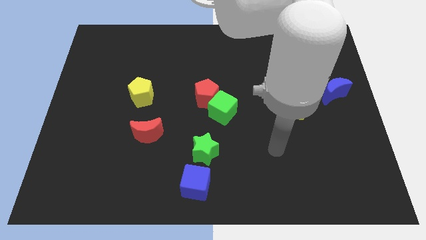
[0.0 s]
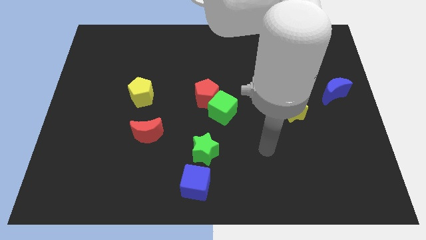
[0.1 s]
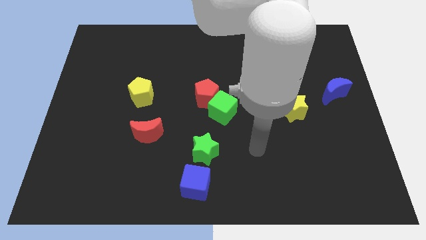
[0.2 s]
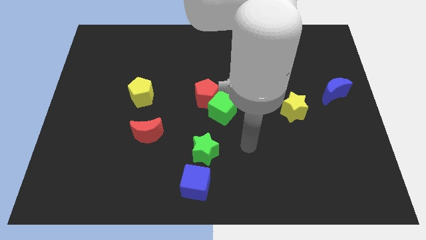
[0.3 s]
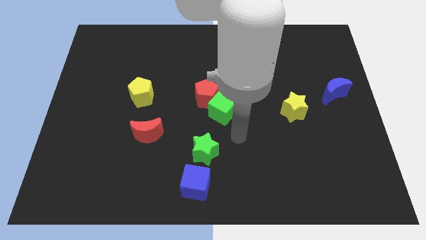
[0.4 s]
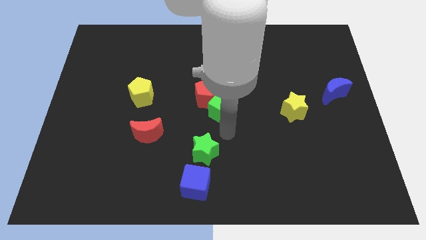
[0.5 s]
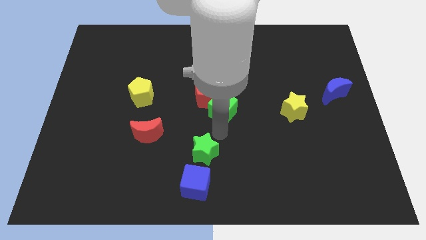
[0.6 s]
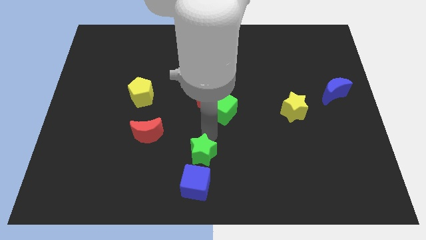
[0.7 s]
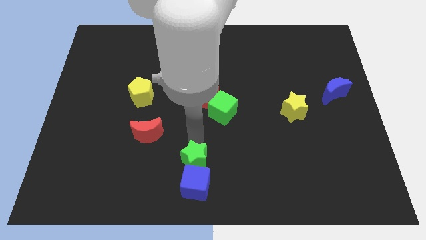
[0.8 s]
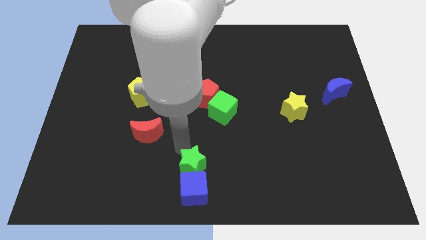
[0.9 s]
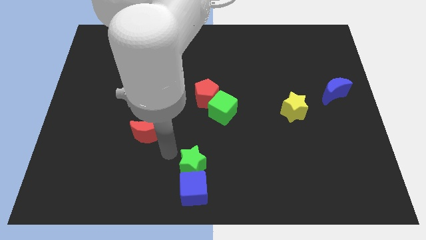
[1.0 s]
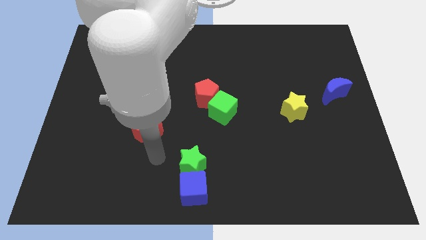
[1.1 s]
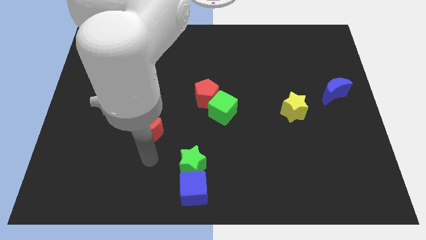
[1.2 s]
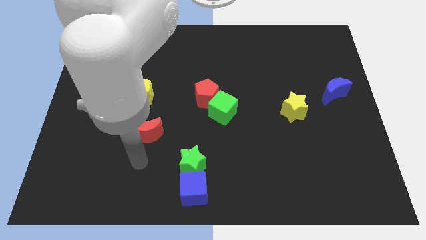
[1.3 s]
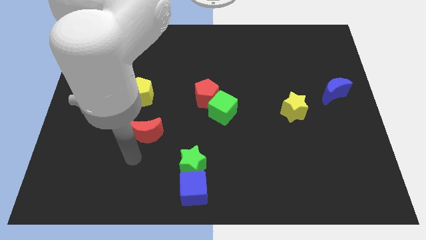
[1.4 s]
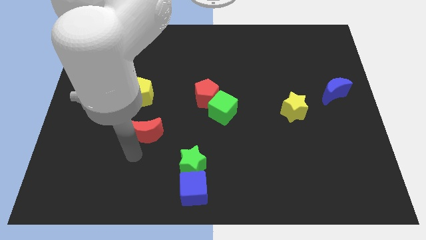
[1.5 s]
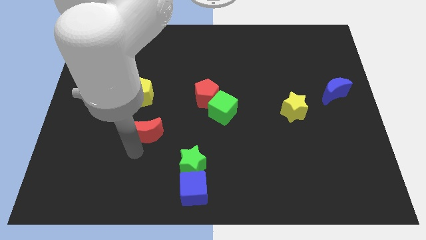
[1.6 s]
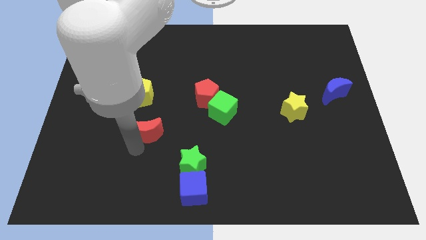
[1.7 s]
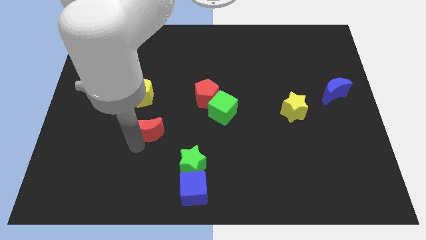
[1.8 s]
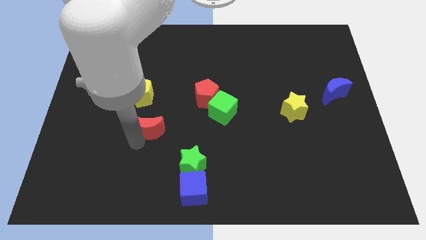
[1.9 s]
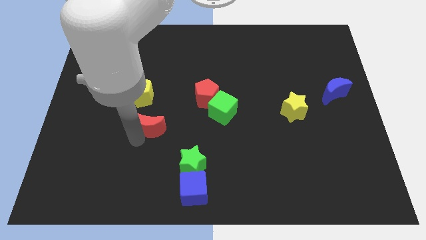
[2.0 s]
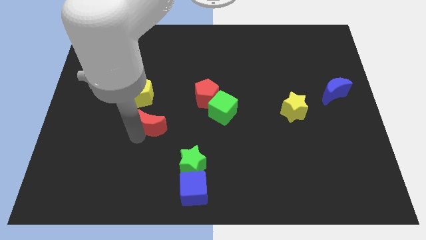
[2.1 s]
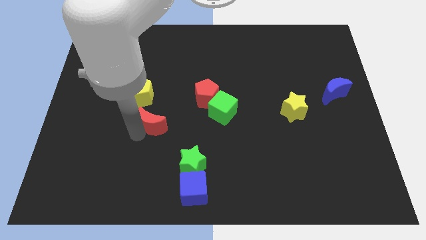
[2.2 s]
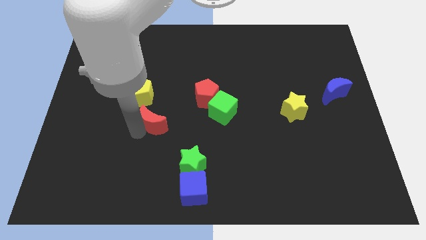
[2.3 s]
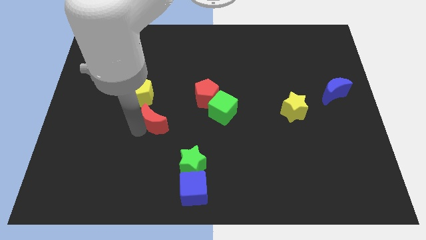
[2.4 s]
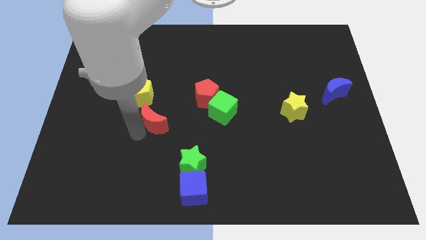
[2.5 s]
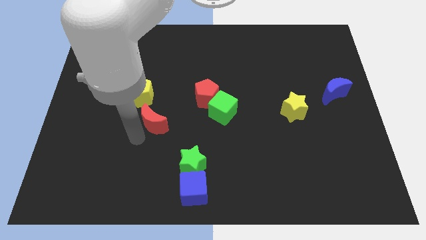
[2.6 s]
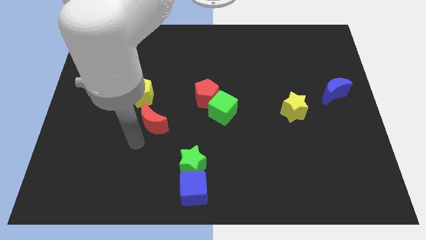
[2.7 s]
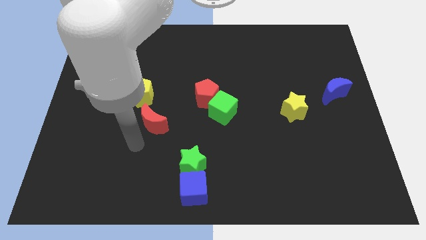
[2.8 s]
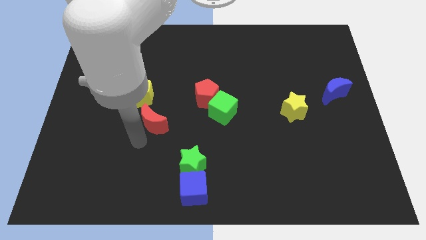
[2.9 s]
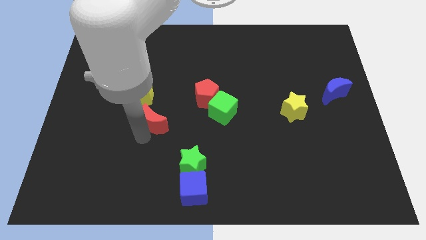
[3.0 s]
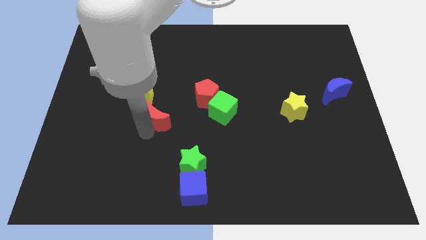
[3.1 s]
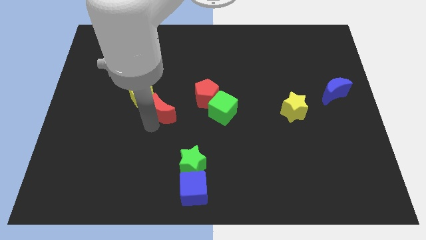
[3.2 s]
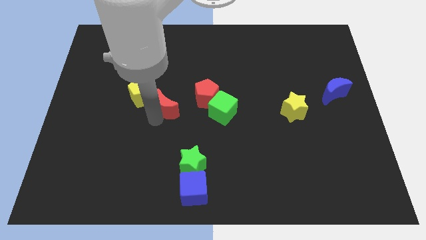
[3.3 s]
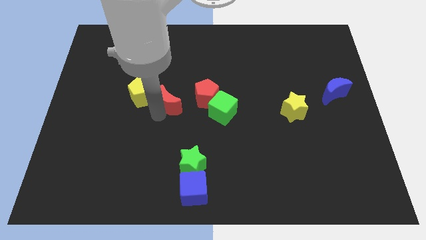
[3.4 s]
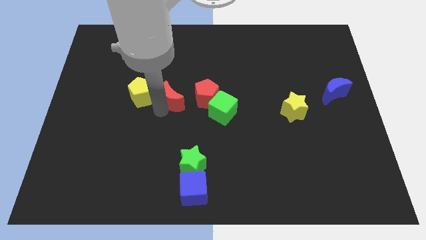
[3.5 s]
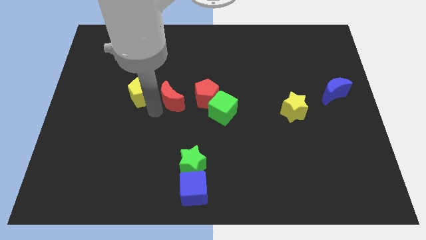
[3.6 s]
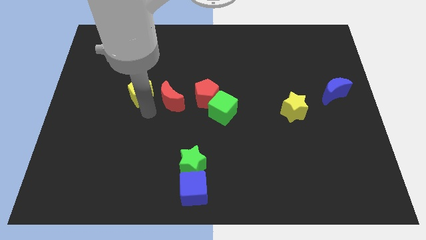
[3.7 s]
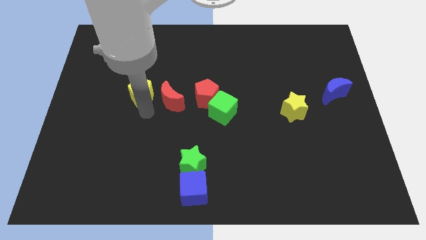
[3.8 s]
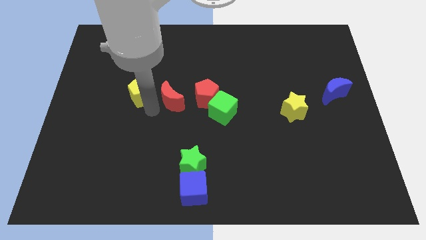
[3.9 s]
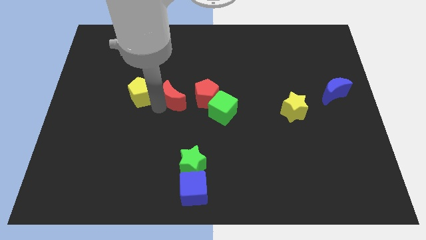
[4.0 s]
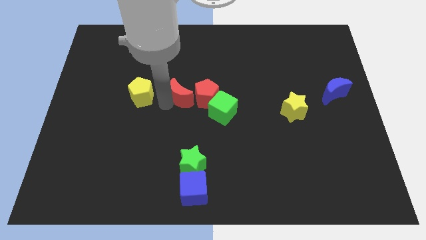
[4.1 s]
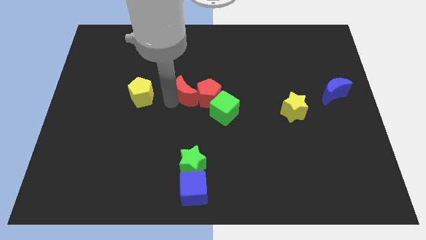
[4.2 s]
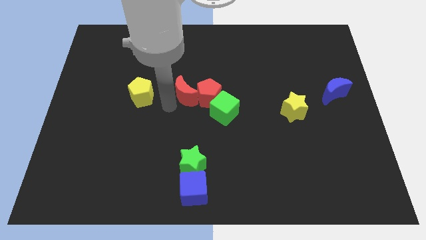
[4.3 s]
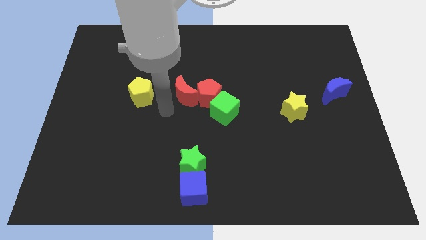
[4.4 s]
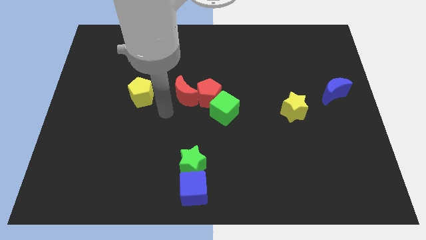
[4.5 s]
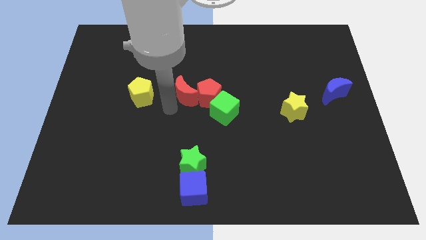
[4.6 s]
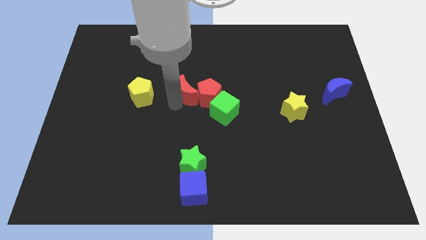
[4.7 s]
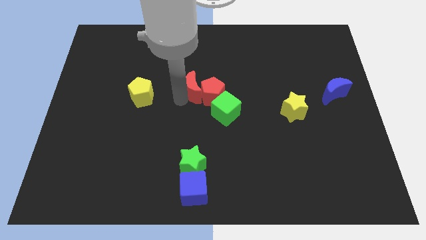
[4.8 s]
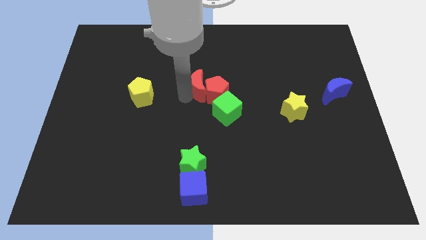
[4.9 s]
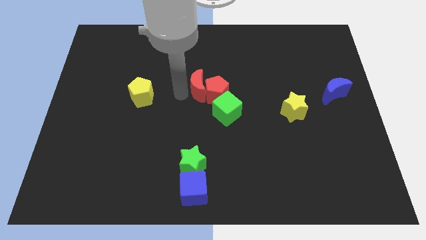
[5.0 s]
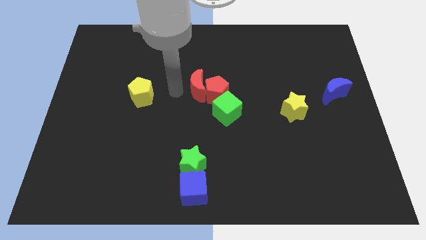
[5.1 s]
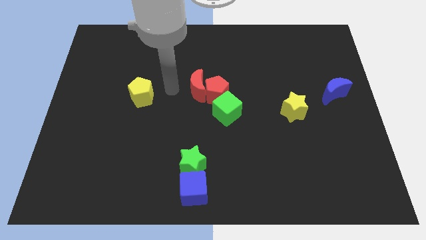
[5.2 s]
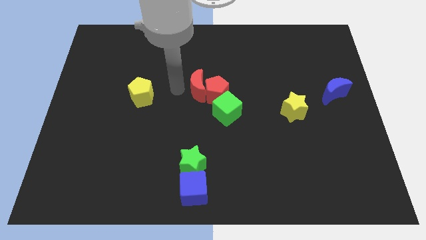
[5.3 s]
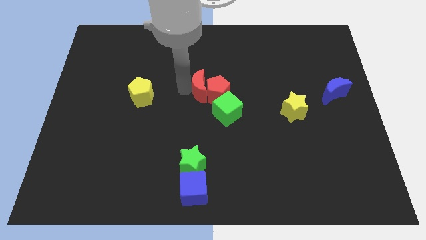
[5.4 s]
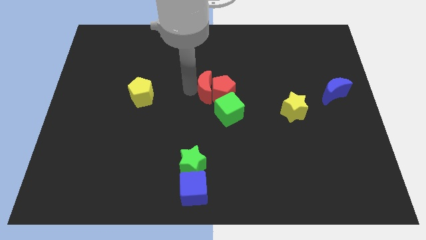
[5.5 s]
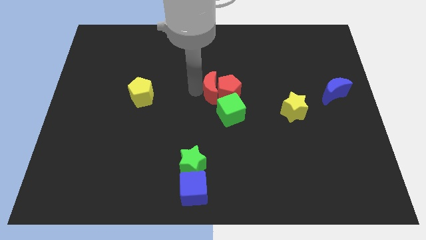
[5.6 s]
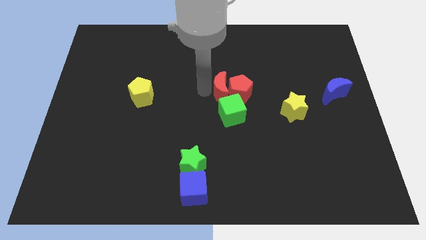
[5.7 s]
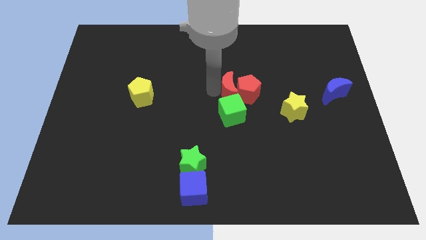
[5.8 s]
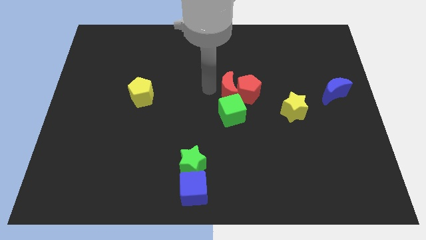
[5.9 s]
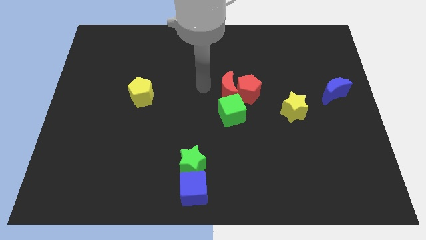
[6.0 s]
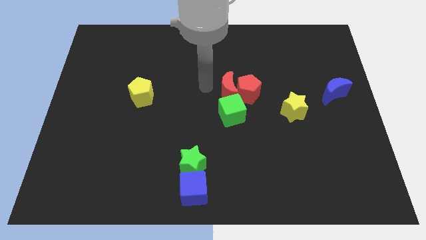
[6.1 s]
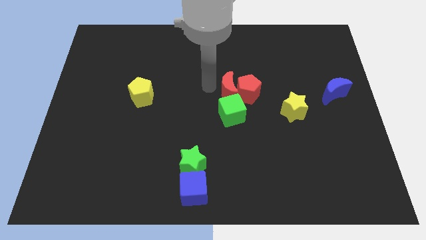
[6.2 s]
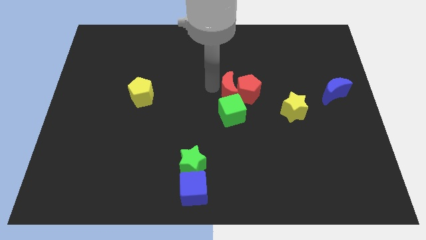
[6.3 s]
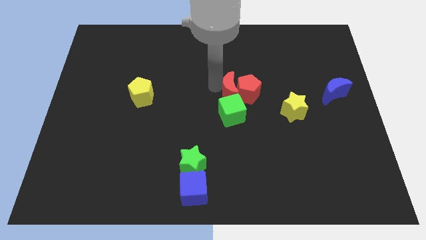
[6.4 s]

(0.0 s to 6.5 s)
slide the red moon to the top right side of the green cube

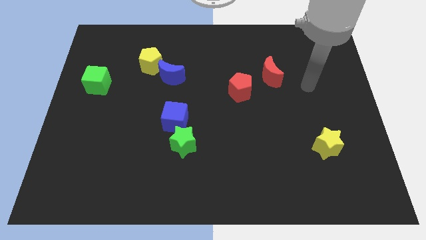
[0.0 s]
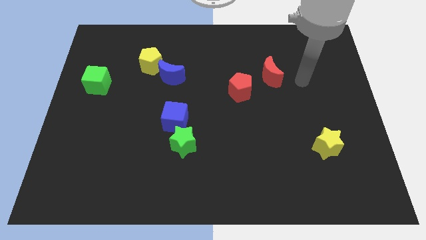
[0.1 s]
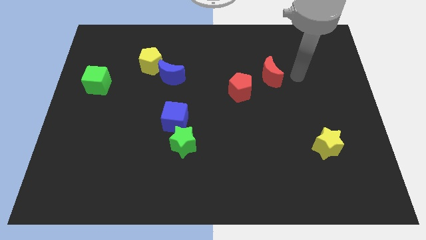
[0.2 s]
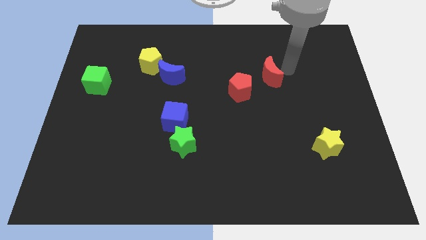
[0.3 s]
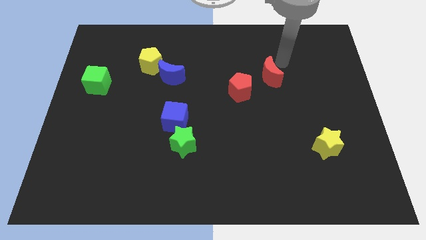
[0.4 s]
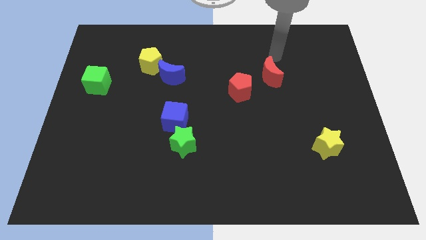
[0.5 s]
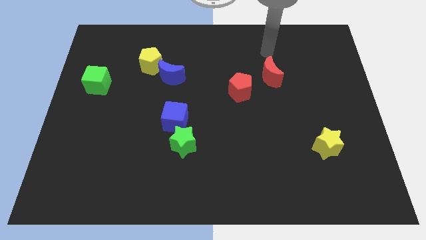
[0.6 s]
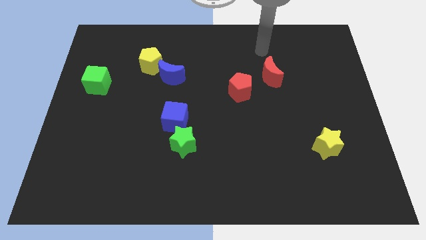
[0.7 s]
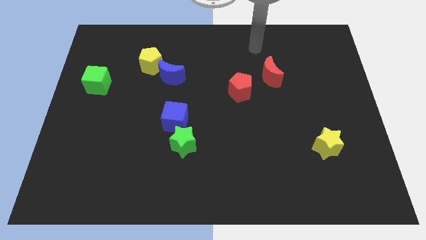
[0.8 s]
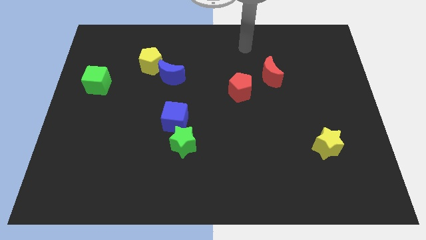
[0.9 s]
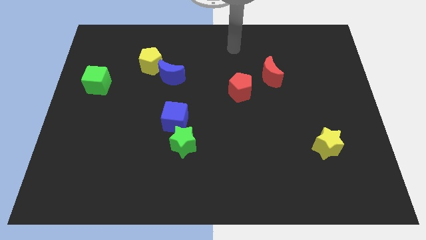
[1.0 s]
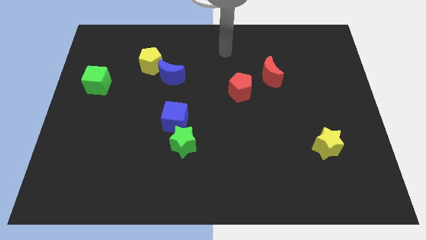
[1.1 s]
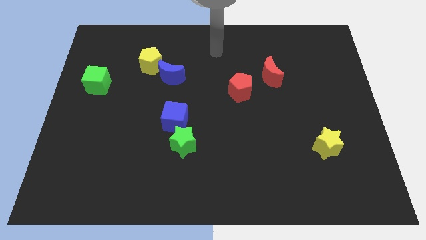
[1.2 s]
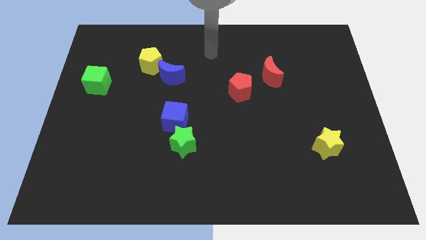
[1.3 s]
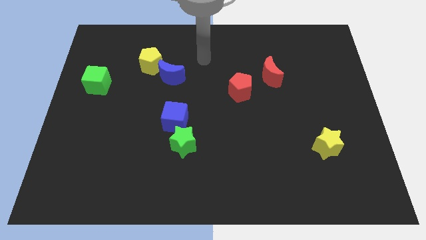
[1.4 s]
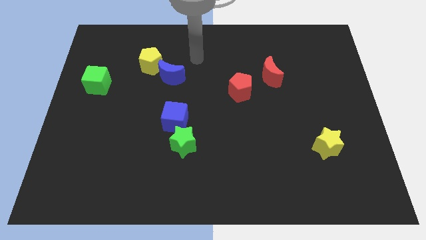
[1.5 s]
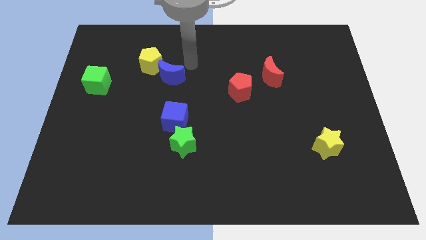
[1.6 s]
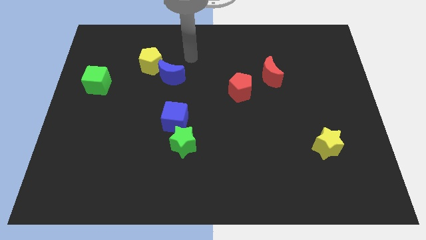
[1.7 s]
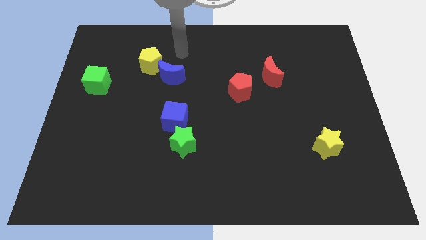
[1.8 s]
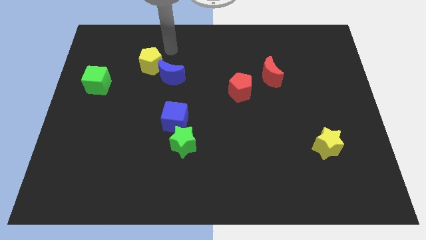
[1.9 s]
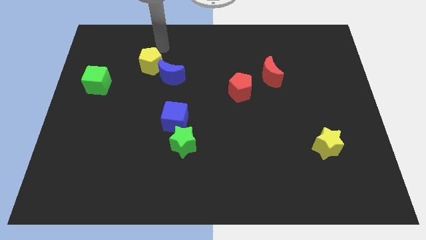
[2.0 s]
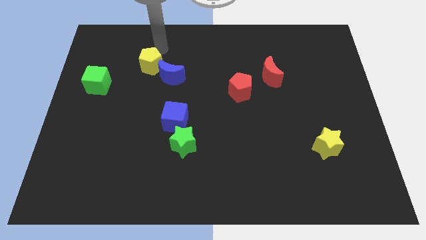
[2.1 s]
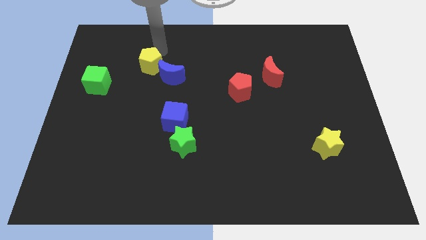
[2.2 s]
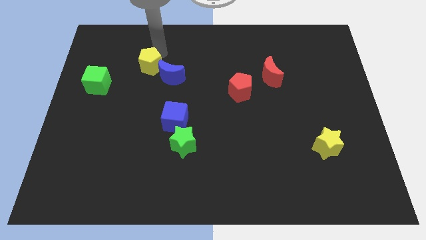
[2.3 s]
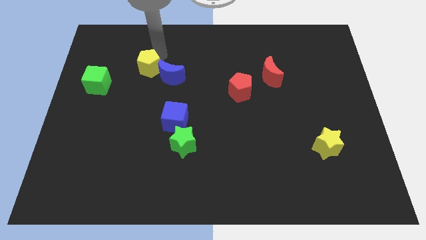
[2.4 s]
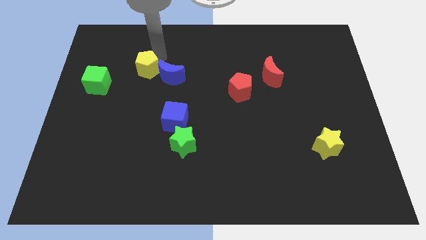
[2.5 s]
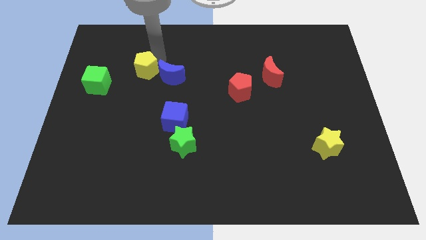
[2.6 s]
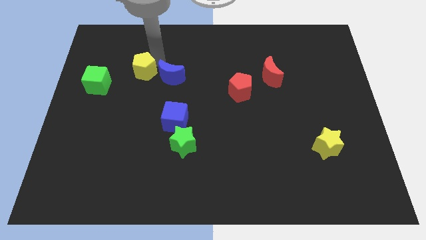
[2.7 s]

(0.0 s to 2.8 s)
move the yellow pentagon to the right of the green cube
